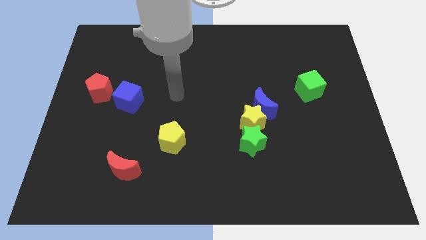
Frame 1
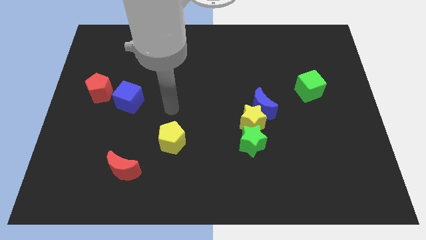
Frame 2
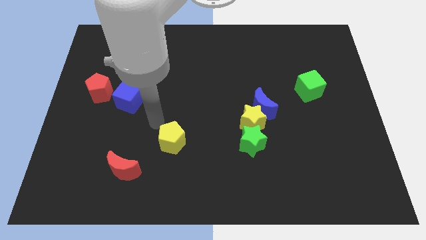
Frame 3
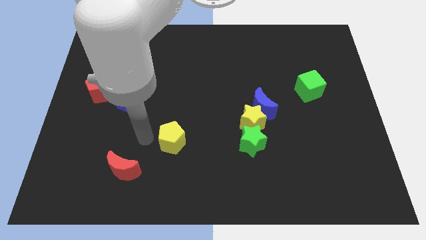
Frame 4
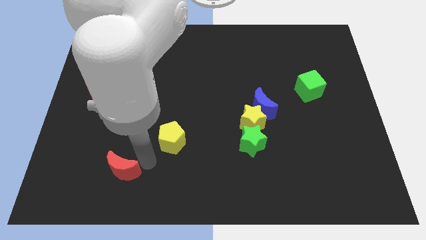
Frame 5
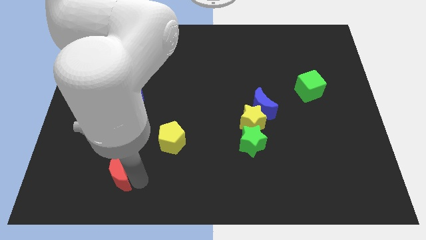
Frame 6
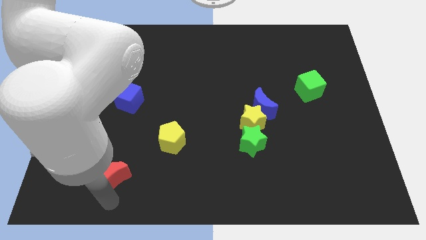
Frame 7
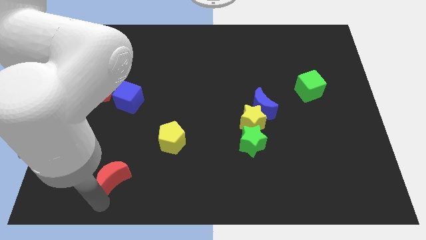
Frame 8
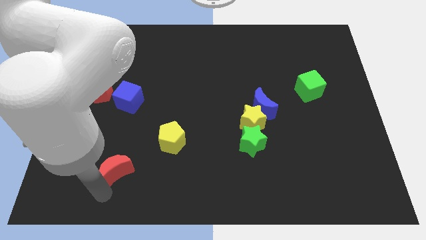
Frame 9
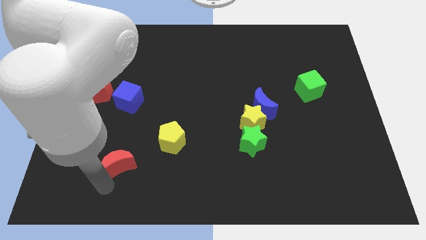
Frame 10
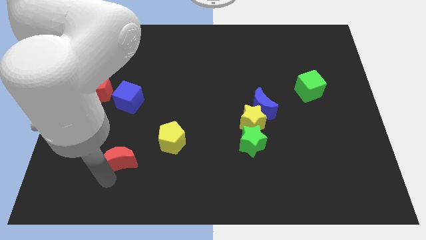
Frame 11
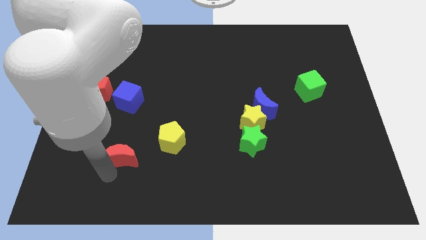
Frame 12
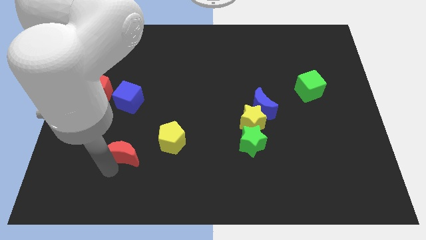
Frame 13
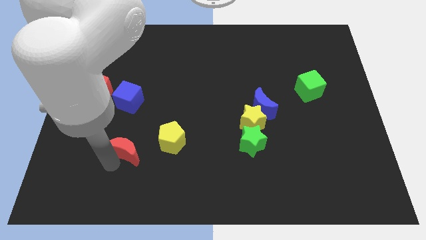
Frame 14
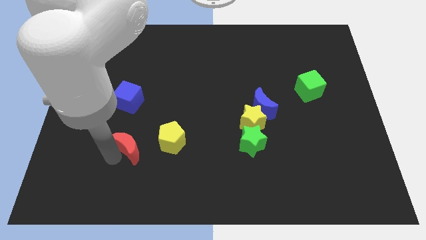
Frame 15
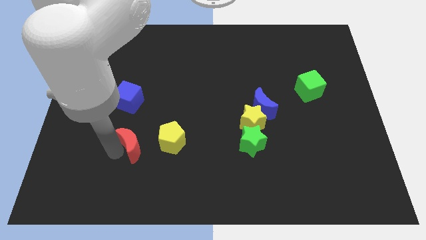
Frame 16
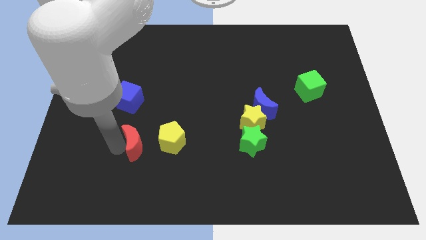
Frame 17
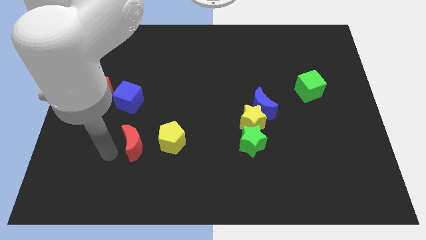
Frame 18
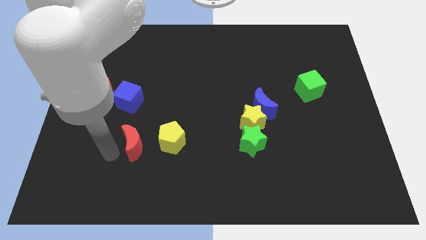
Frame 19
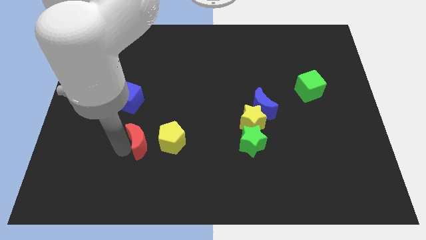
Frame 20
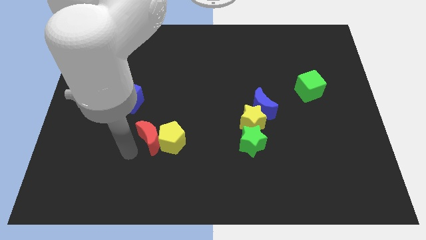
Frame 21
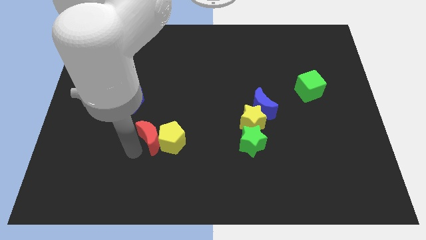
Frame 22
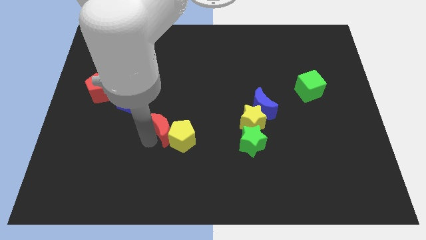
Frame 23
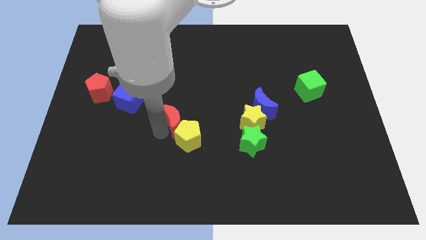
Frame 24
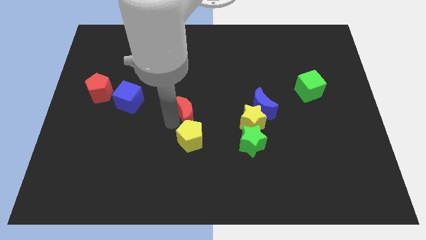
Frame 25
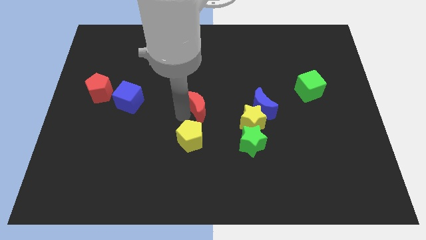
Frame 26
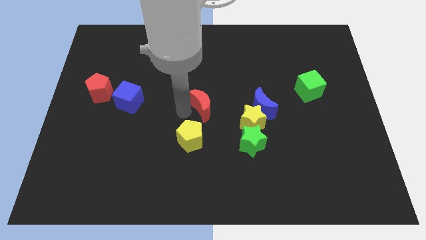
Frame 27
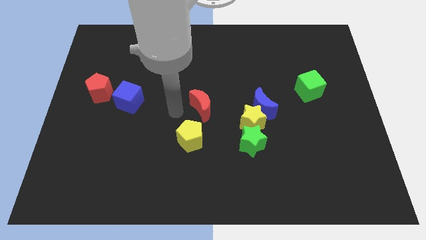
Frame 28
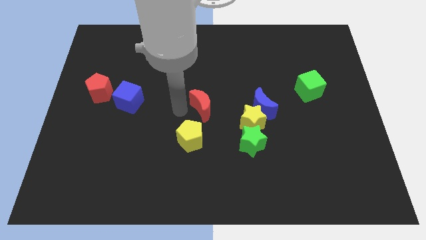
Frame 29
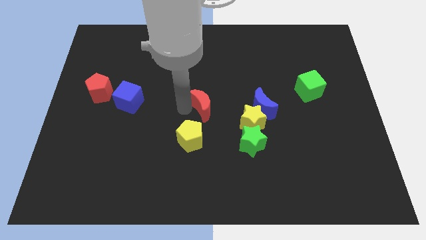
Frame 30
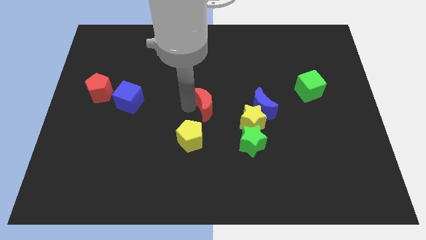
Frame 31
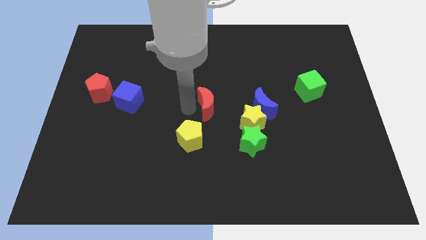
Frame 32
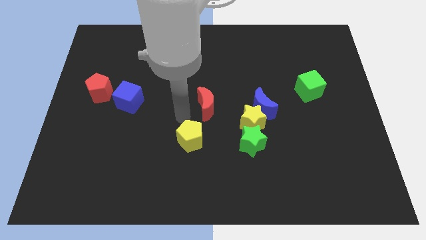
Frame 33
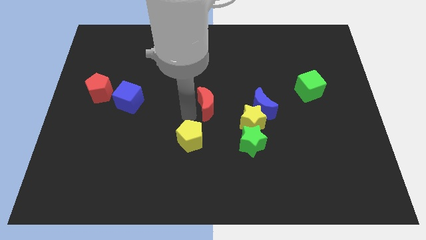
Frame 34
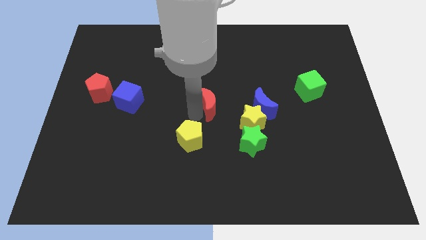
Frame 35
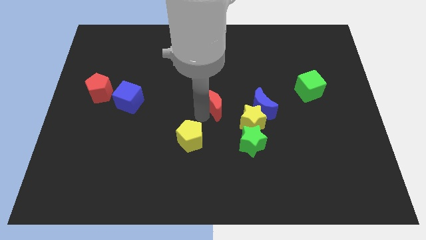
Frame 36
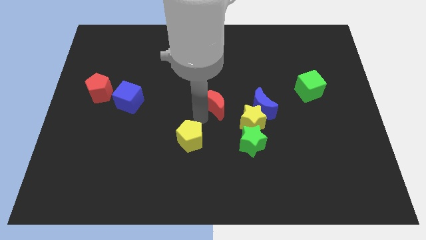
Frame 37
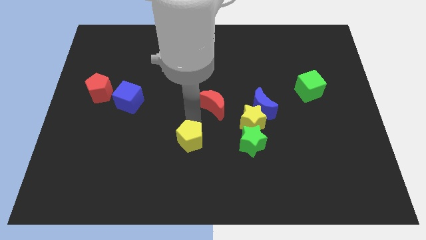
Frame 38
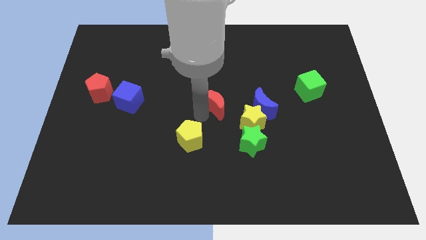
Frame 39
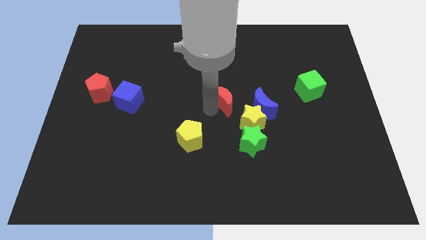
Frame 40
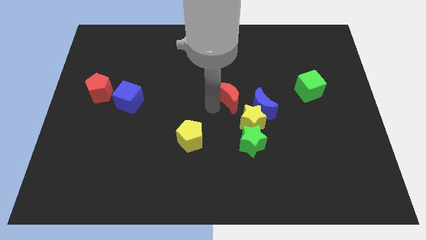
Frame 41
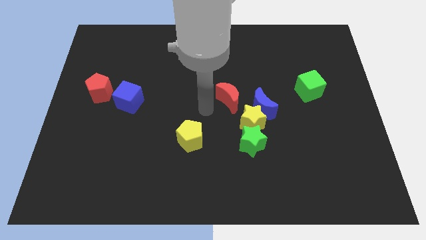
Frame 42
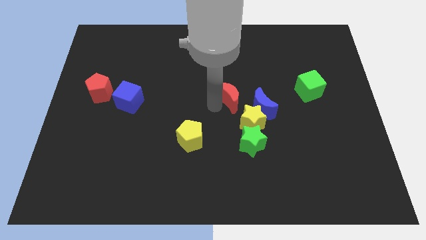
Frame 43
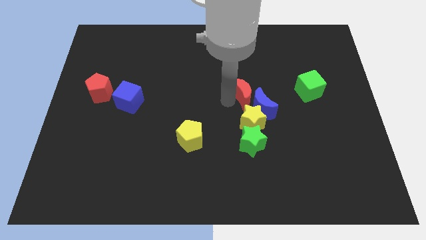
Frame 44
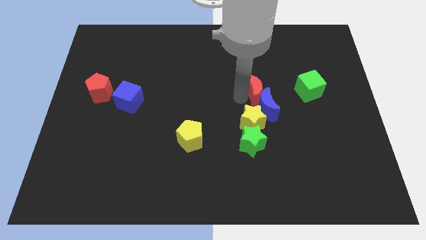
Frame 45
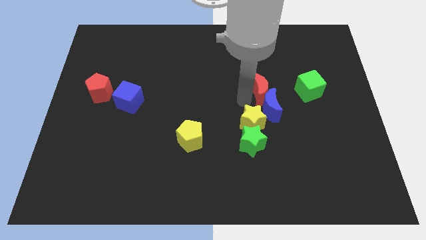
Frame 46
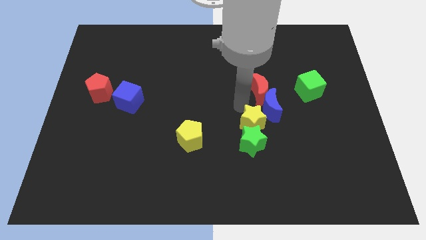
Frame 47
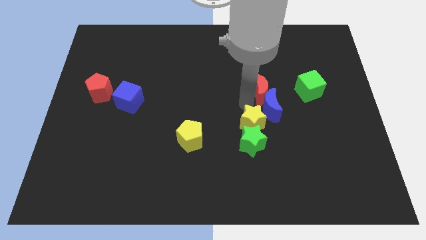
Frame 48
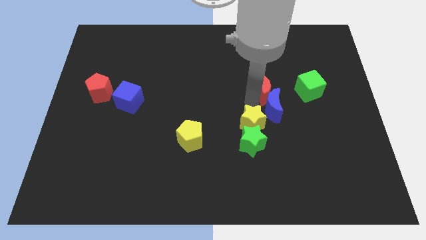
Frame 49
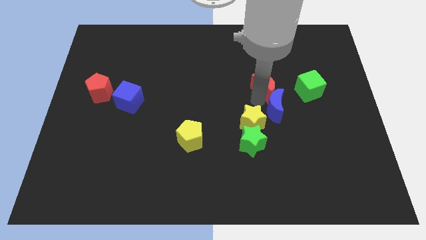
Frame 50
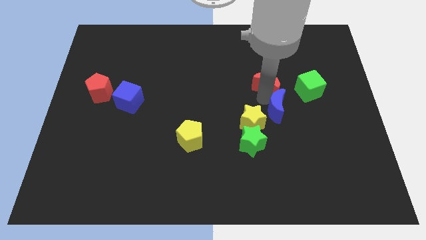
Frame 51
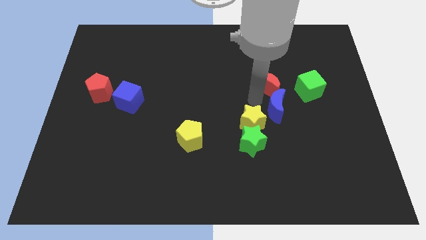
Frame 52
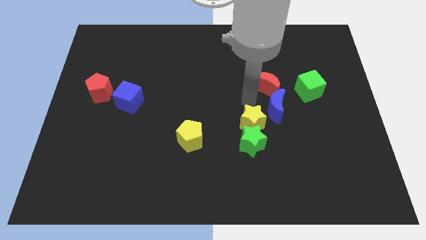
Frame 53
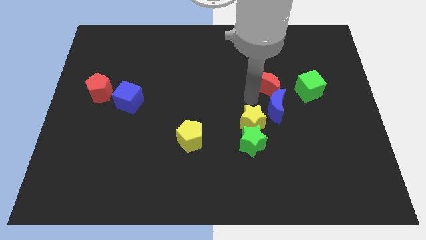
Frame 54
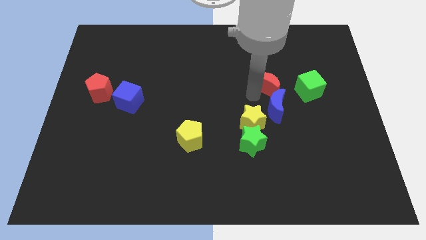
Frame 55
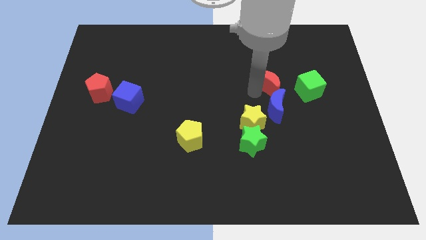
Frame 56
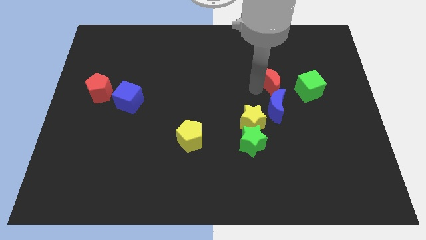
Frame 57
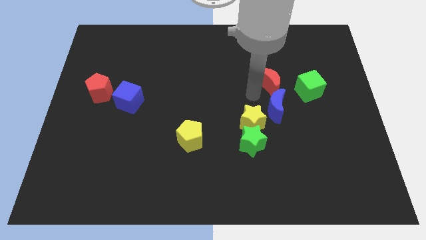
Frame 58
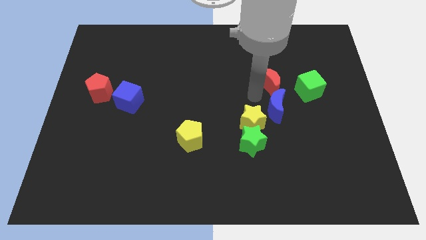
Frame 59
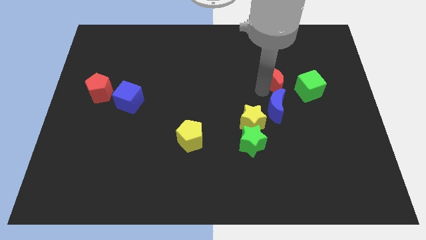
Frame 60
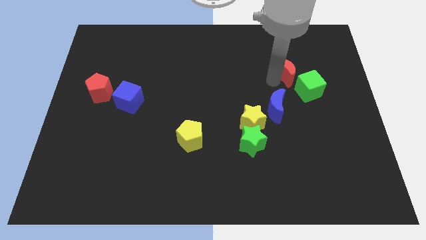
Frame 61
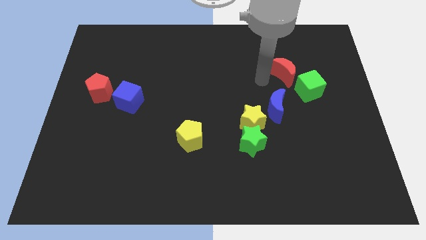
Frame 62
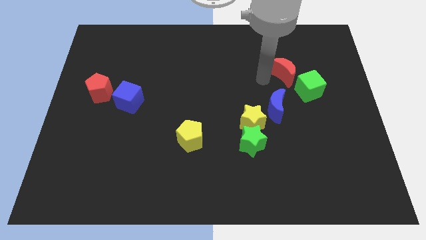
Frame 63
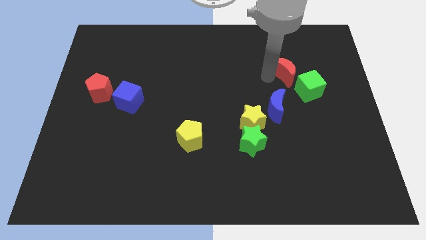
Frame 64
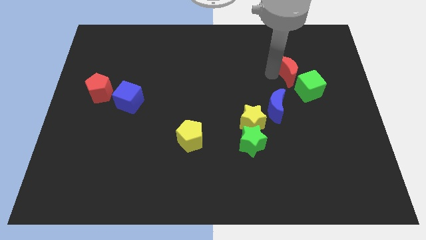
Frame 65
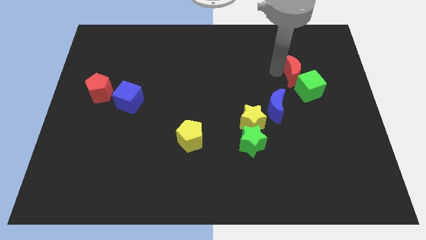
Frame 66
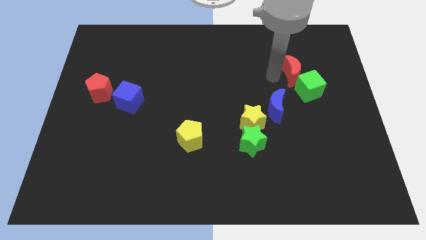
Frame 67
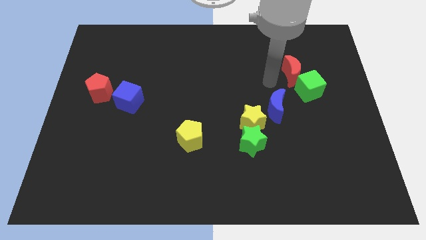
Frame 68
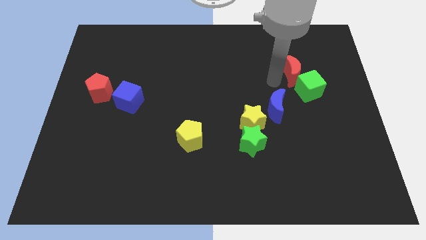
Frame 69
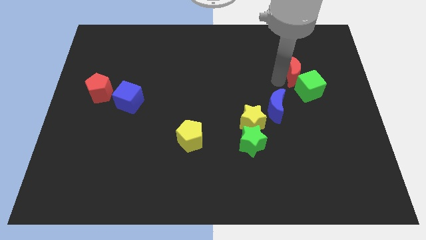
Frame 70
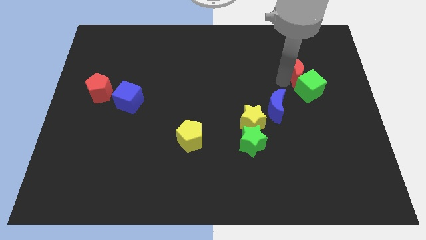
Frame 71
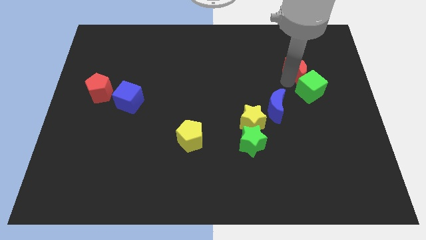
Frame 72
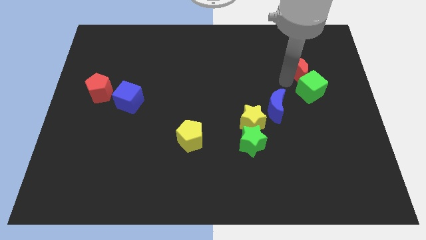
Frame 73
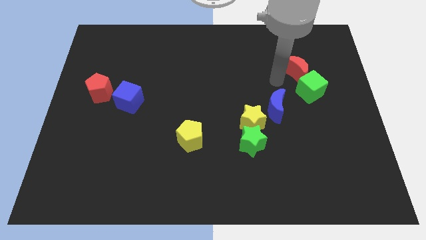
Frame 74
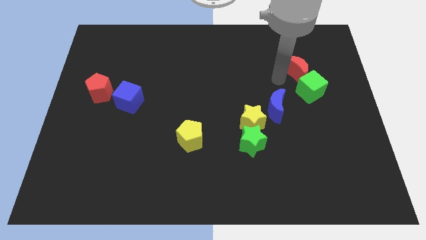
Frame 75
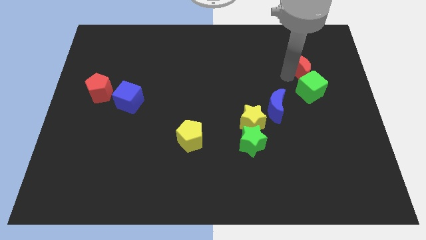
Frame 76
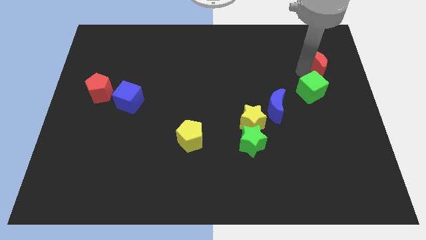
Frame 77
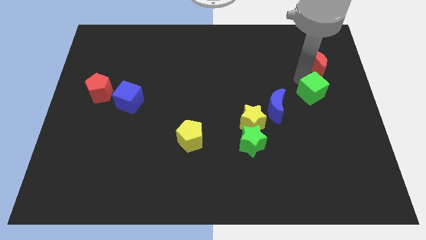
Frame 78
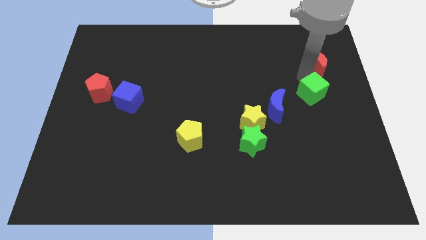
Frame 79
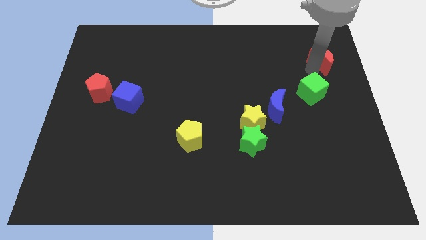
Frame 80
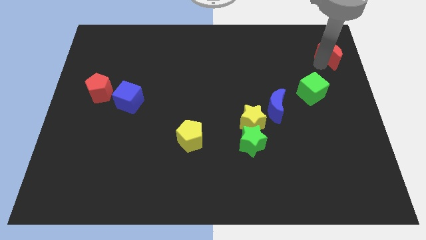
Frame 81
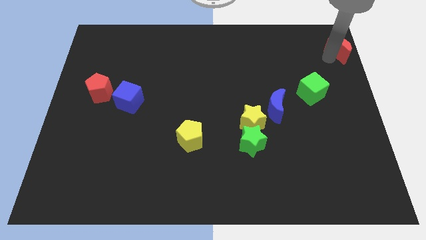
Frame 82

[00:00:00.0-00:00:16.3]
move the red moon to the top right corner
